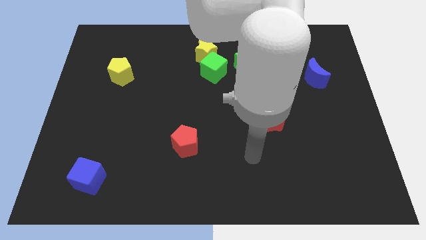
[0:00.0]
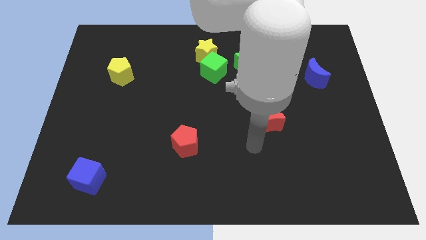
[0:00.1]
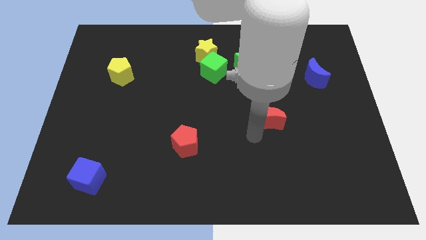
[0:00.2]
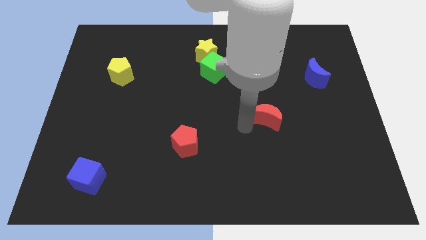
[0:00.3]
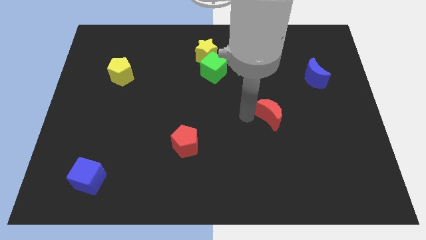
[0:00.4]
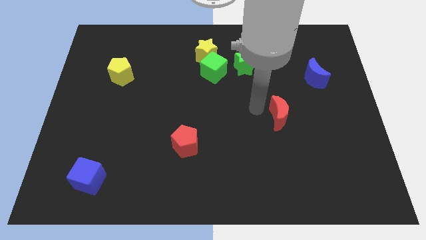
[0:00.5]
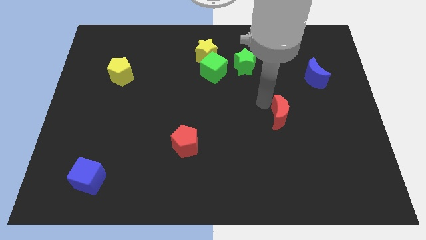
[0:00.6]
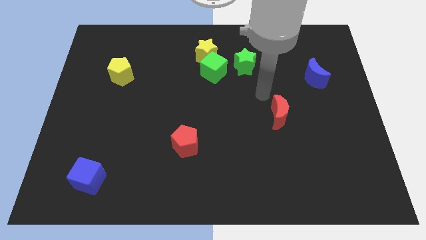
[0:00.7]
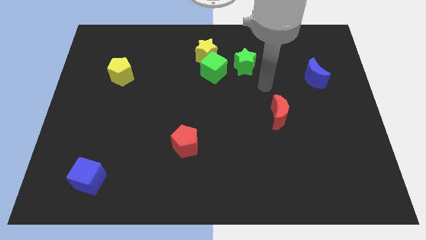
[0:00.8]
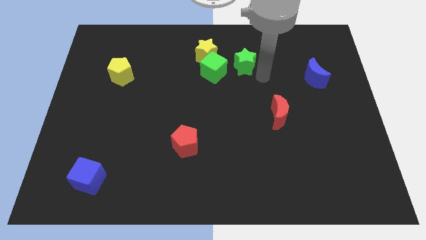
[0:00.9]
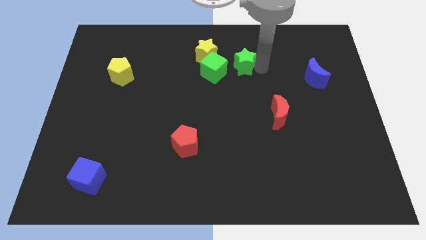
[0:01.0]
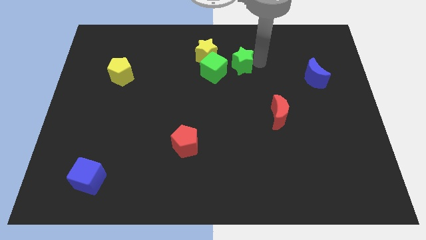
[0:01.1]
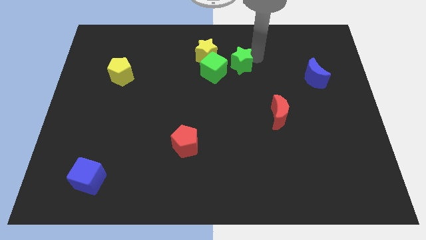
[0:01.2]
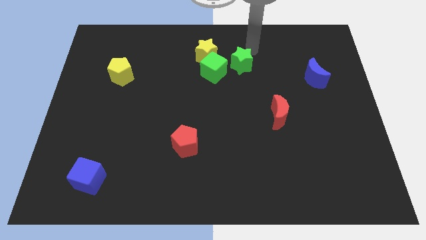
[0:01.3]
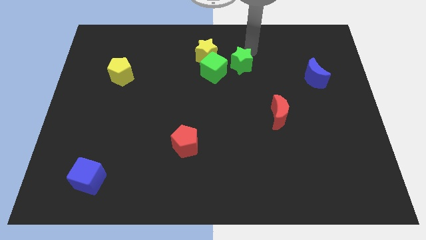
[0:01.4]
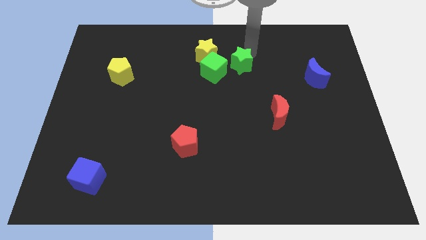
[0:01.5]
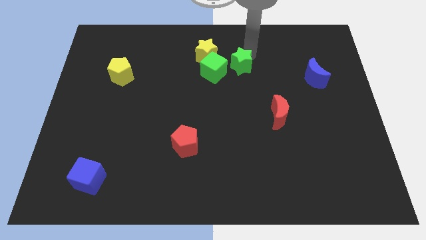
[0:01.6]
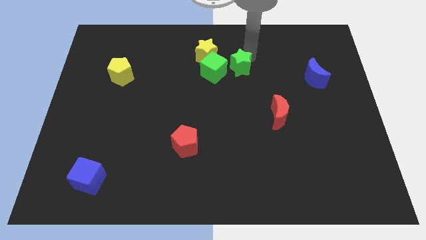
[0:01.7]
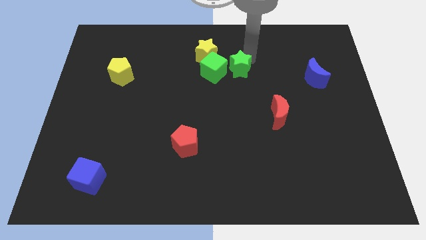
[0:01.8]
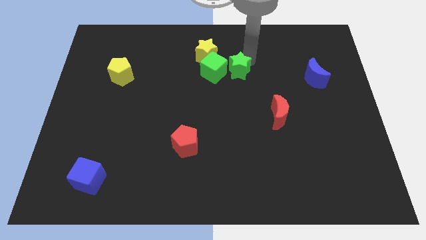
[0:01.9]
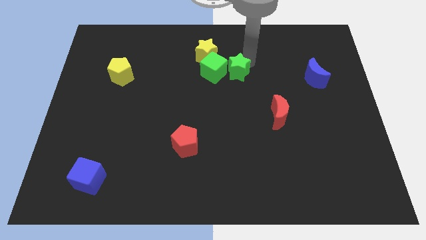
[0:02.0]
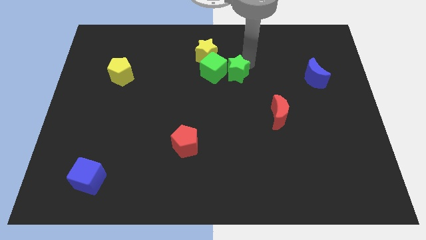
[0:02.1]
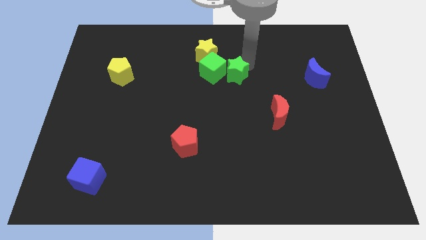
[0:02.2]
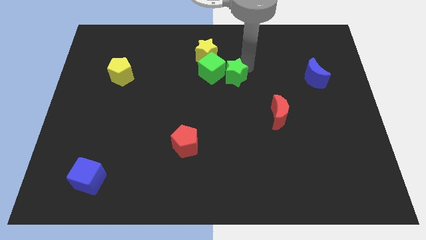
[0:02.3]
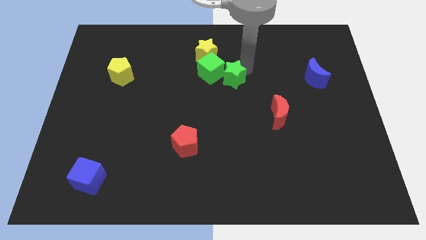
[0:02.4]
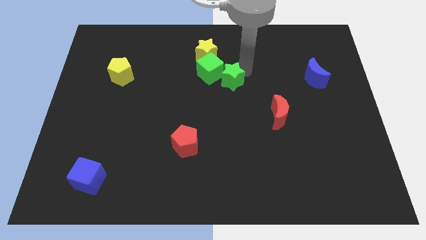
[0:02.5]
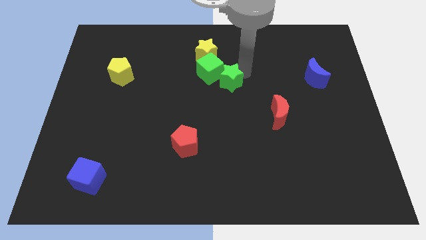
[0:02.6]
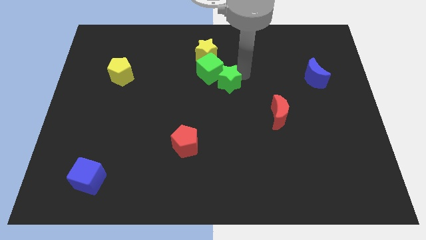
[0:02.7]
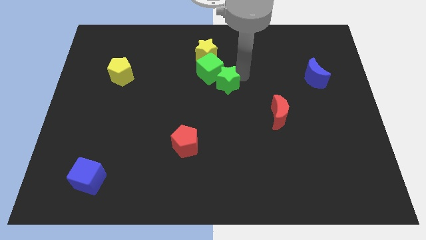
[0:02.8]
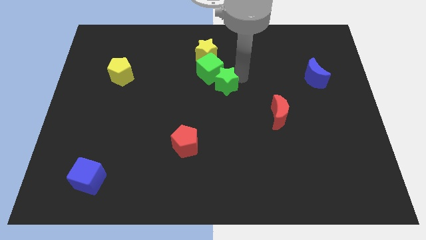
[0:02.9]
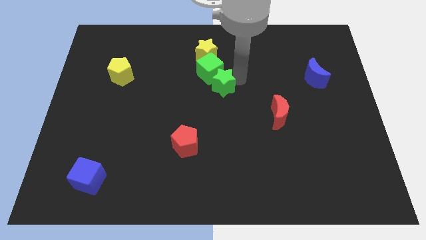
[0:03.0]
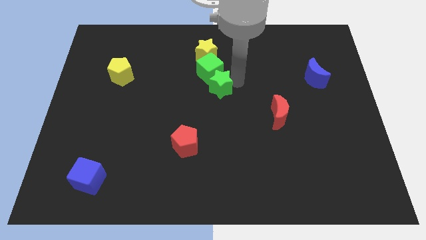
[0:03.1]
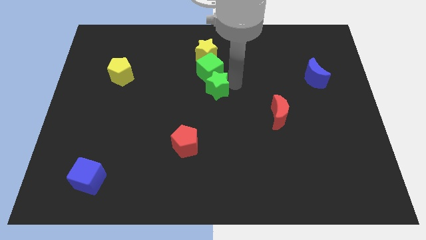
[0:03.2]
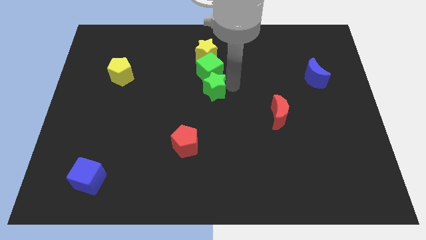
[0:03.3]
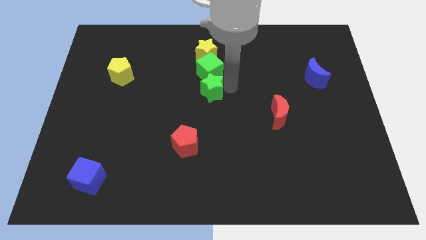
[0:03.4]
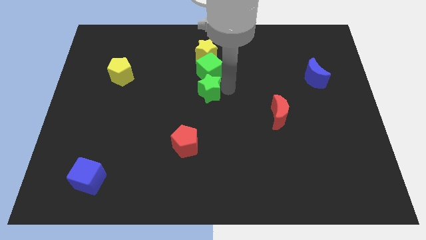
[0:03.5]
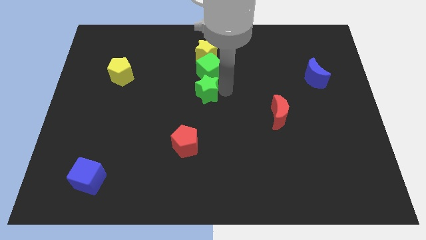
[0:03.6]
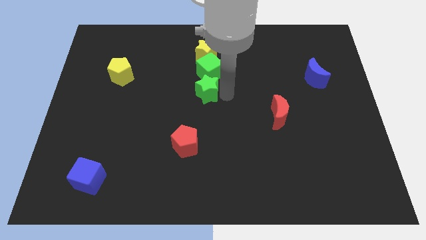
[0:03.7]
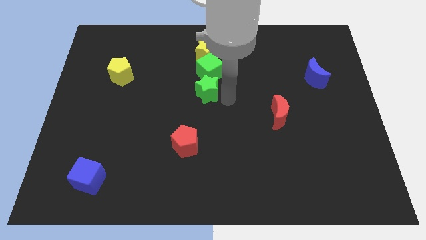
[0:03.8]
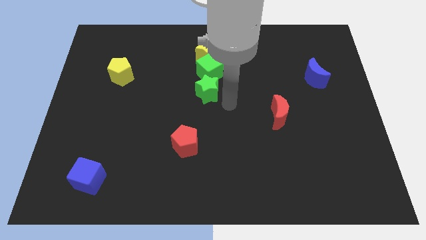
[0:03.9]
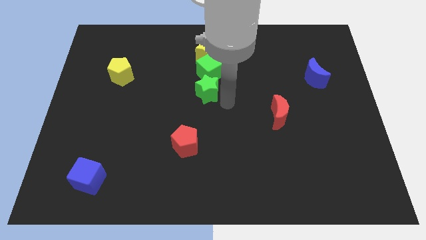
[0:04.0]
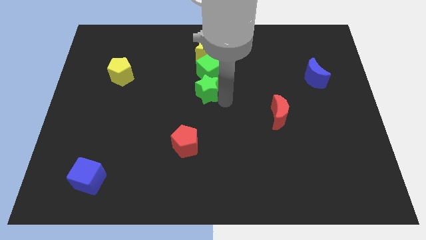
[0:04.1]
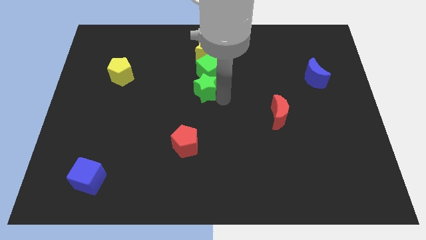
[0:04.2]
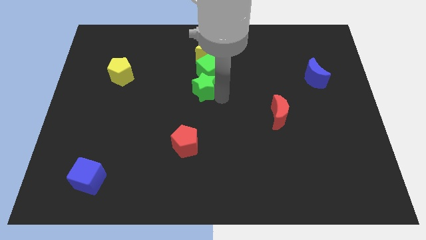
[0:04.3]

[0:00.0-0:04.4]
slide the green star somewhat left

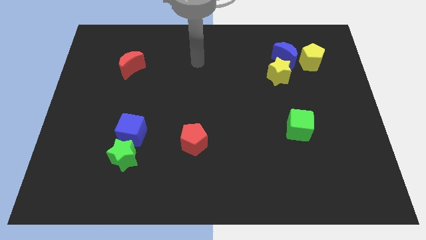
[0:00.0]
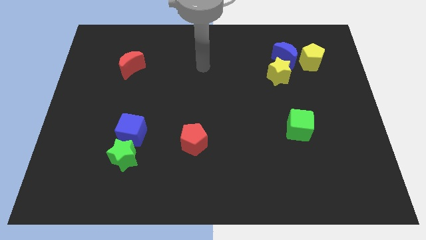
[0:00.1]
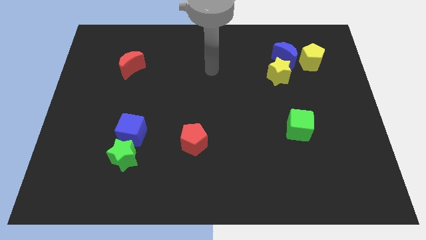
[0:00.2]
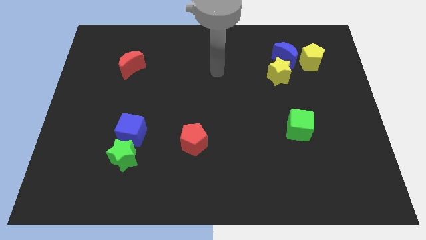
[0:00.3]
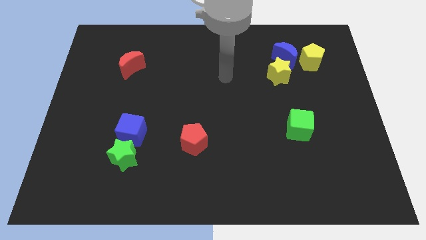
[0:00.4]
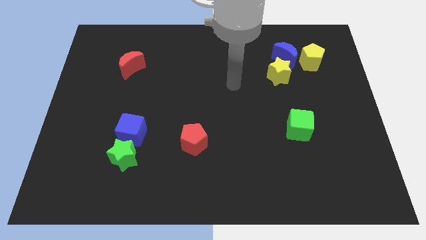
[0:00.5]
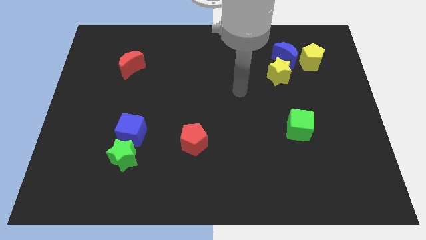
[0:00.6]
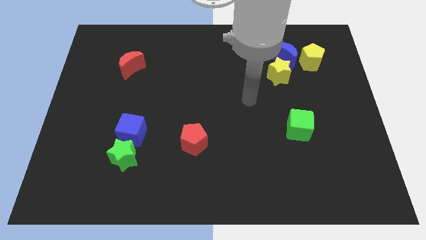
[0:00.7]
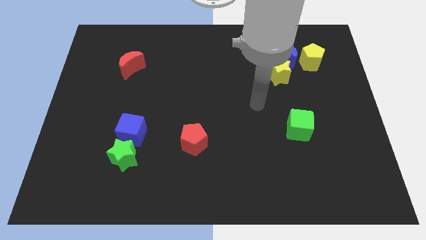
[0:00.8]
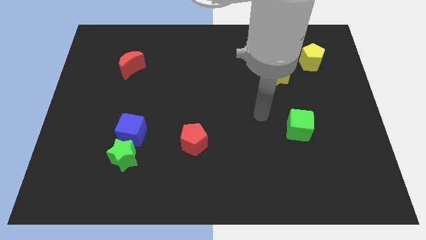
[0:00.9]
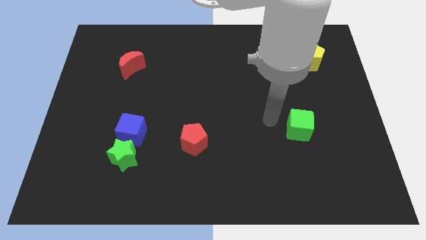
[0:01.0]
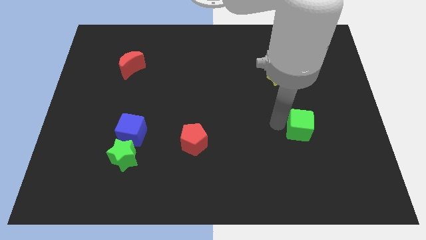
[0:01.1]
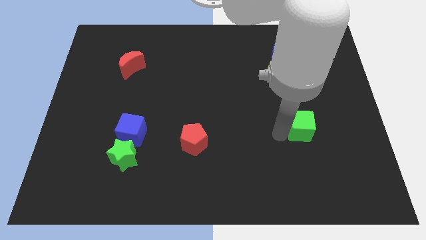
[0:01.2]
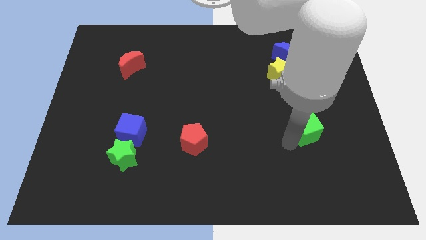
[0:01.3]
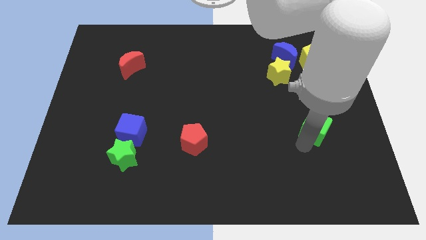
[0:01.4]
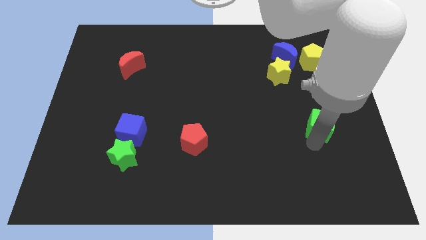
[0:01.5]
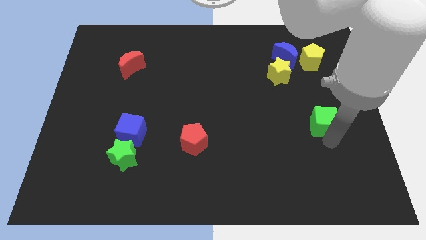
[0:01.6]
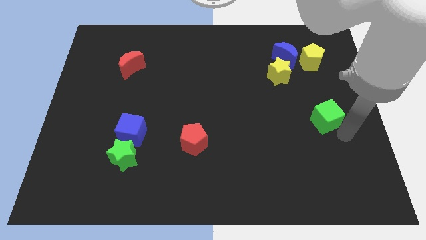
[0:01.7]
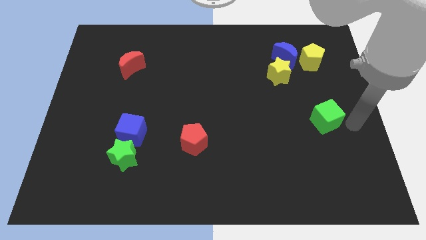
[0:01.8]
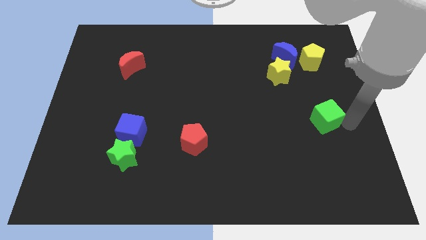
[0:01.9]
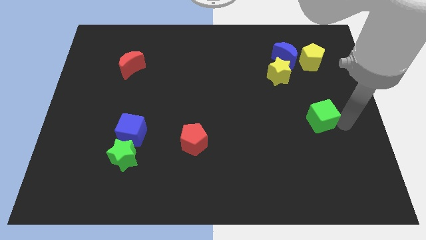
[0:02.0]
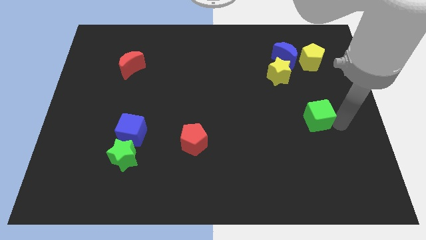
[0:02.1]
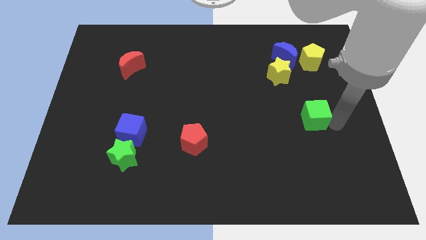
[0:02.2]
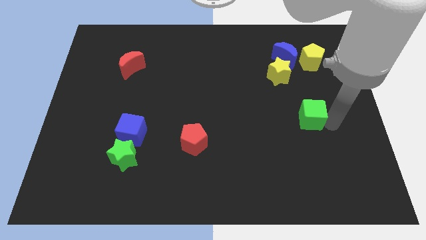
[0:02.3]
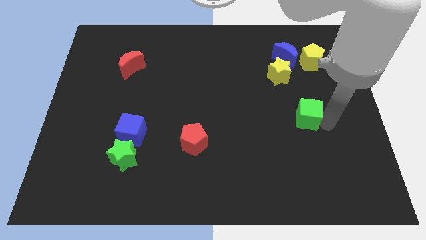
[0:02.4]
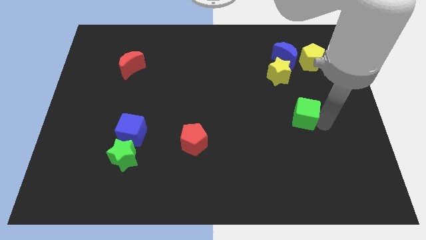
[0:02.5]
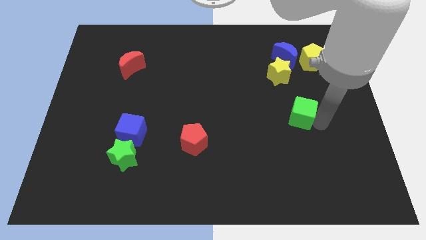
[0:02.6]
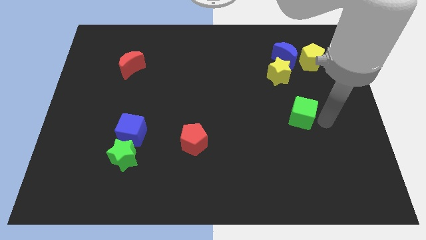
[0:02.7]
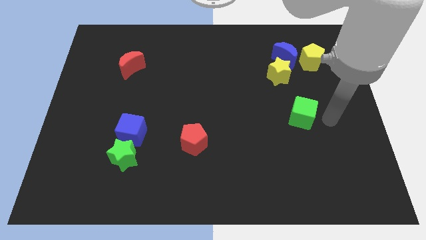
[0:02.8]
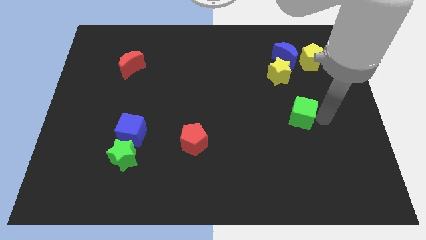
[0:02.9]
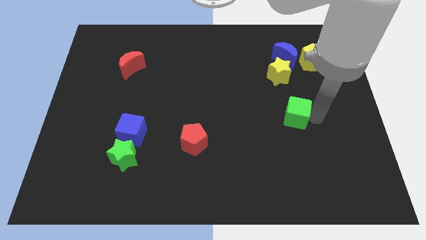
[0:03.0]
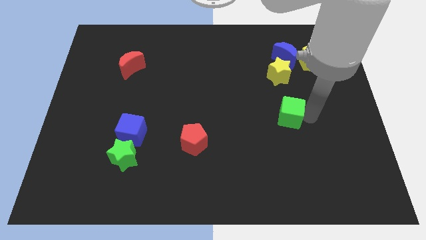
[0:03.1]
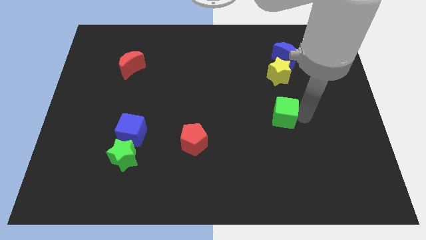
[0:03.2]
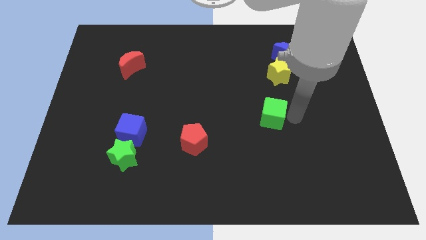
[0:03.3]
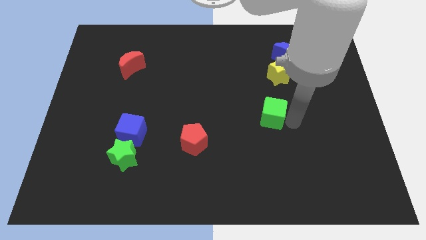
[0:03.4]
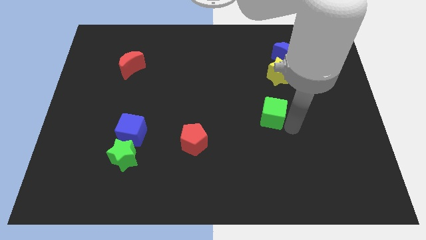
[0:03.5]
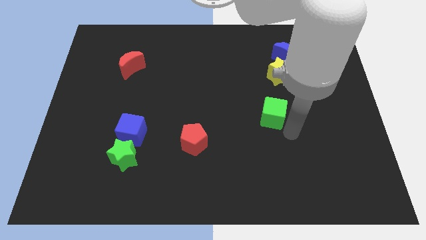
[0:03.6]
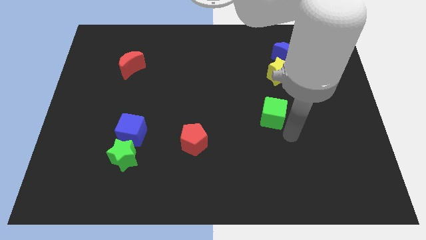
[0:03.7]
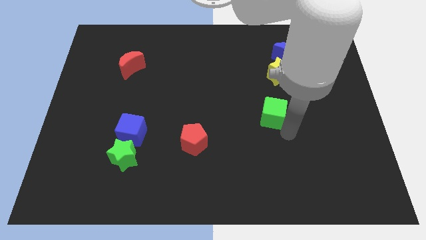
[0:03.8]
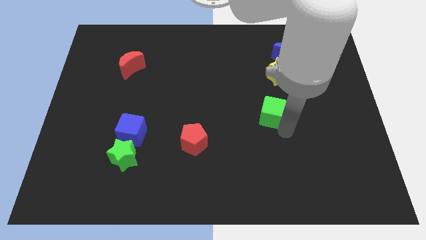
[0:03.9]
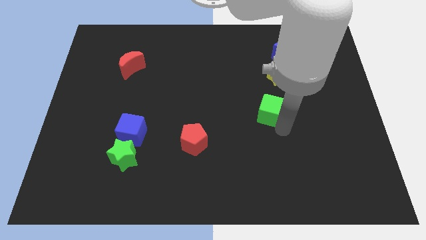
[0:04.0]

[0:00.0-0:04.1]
slide the green cube diagonally upwards and left slightly
